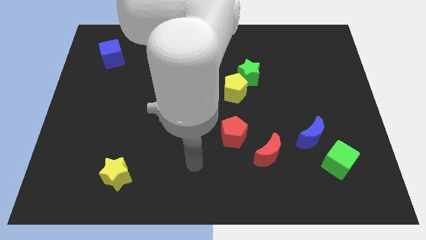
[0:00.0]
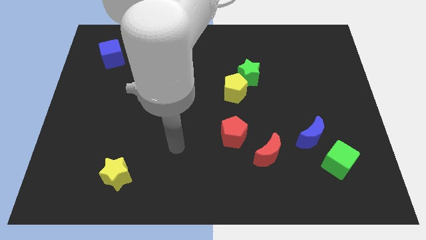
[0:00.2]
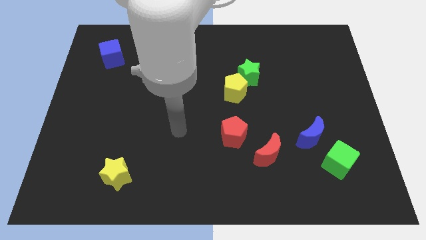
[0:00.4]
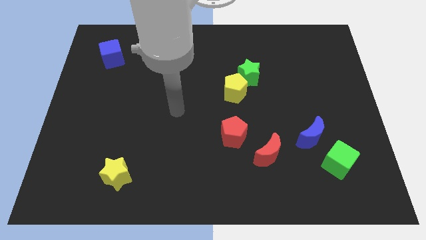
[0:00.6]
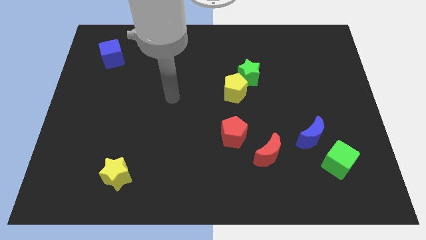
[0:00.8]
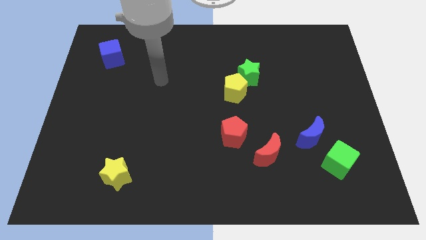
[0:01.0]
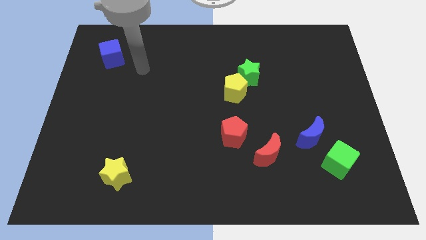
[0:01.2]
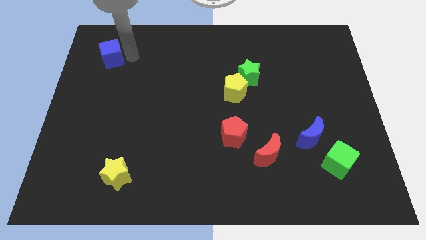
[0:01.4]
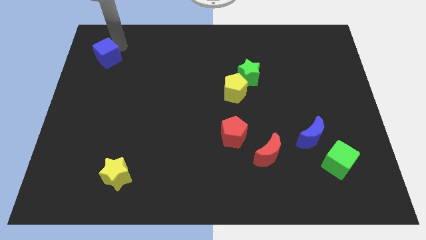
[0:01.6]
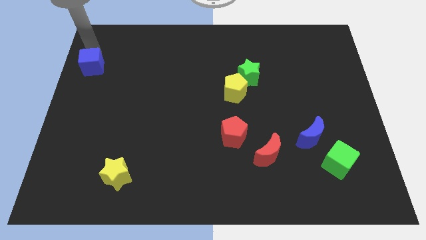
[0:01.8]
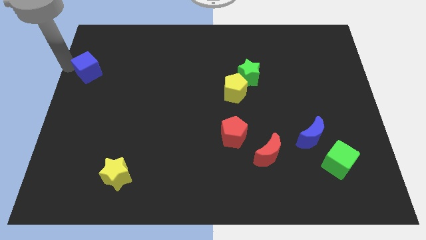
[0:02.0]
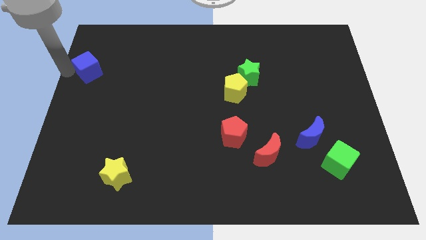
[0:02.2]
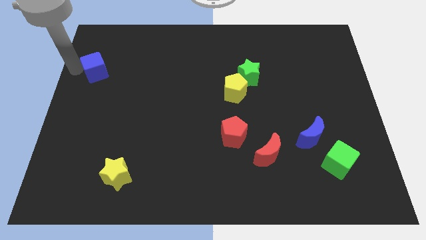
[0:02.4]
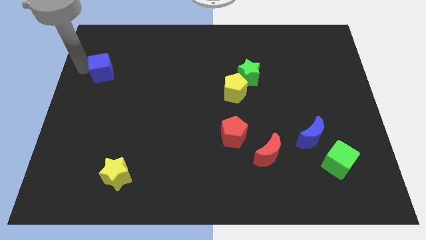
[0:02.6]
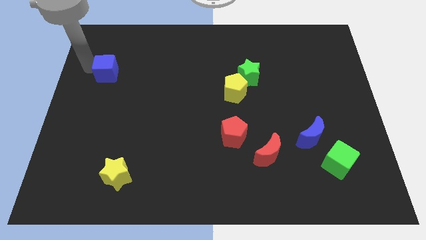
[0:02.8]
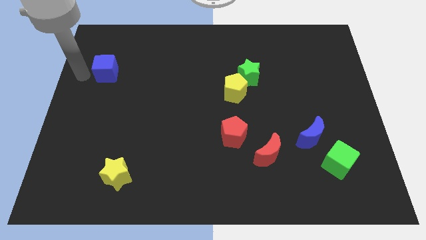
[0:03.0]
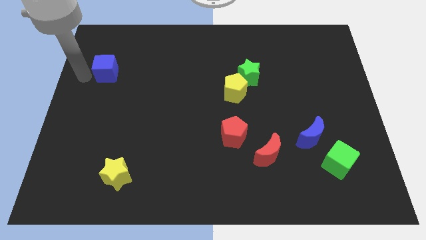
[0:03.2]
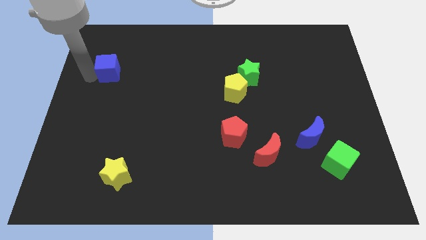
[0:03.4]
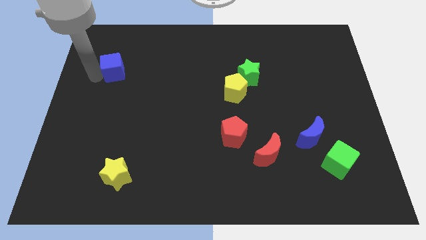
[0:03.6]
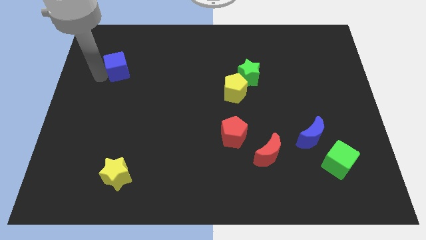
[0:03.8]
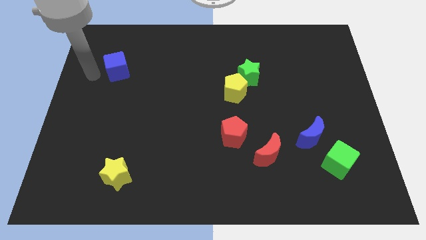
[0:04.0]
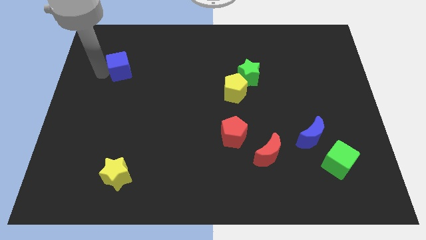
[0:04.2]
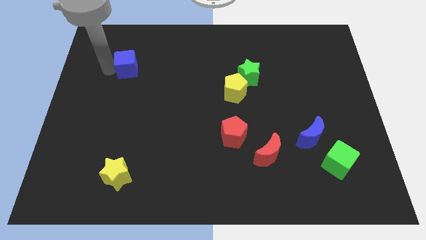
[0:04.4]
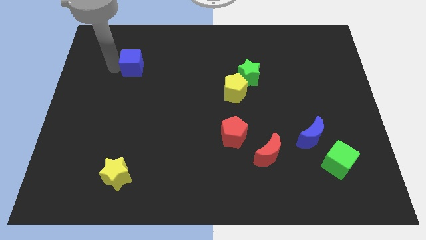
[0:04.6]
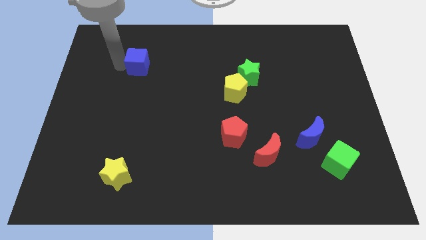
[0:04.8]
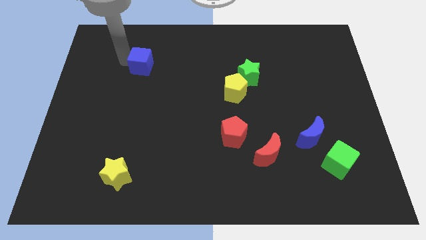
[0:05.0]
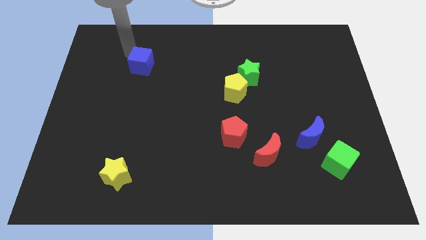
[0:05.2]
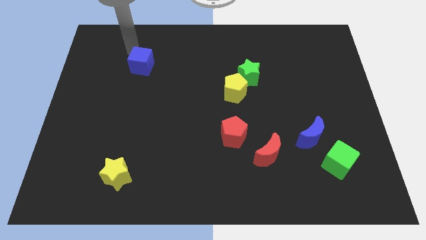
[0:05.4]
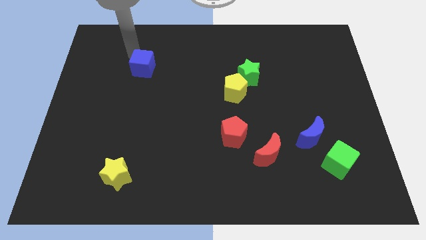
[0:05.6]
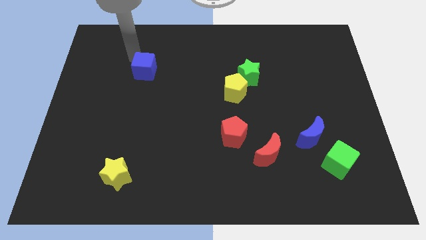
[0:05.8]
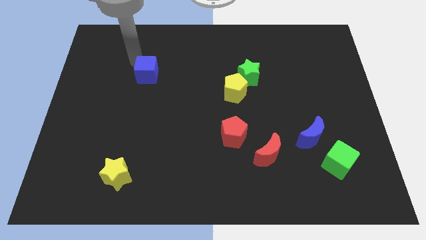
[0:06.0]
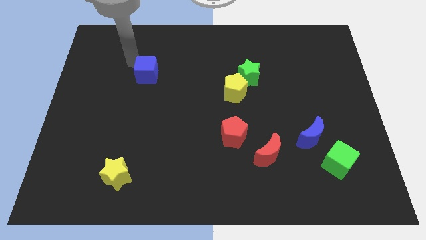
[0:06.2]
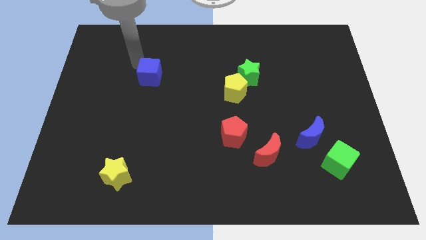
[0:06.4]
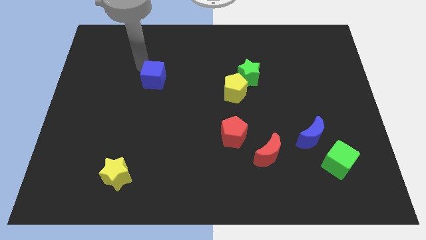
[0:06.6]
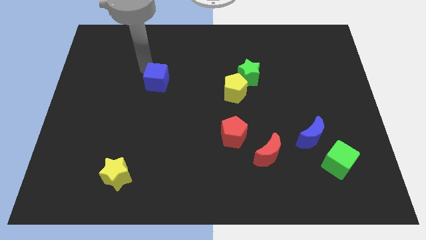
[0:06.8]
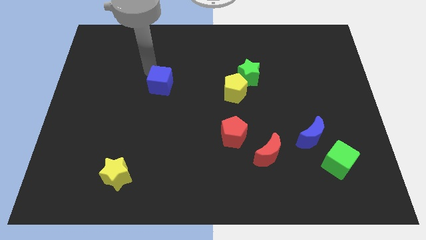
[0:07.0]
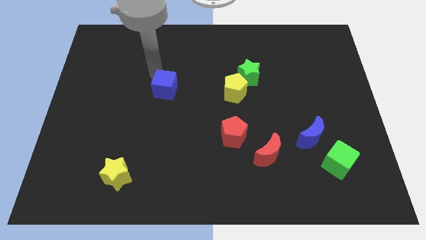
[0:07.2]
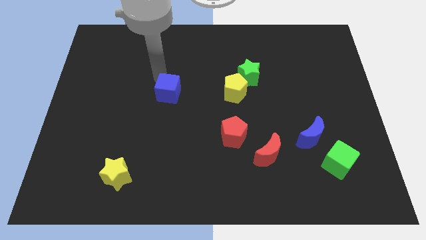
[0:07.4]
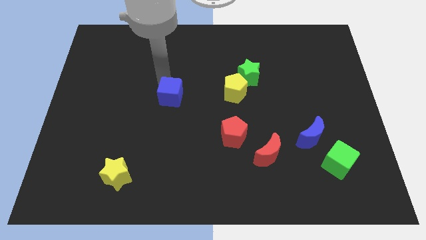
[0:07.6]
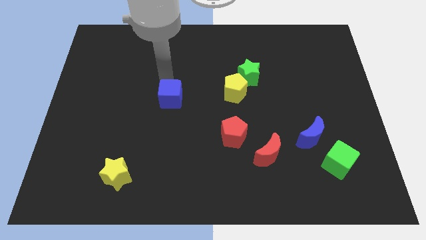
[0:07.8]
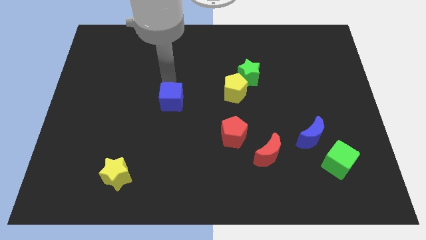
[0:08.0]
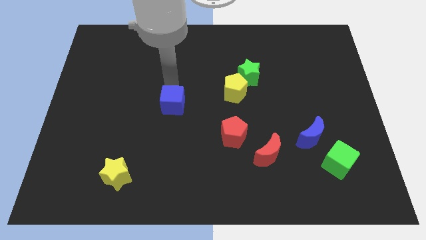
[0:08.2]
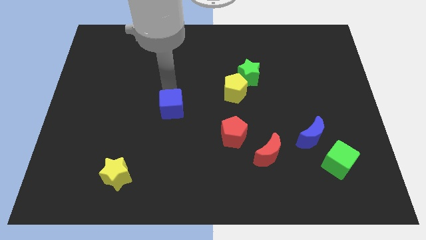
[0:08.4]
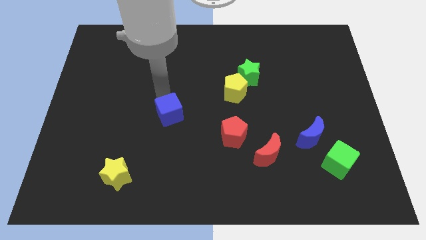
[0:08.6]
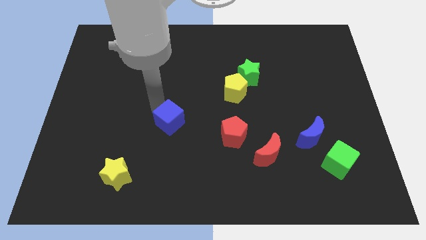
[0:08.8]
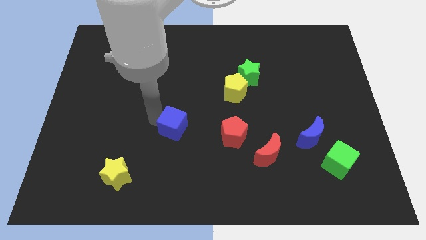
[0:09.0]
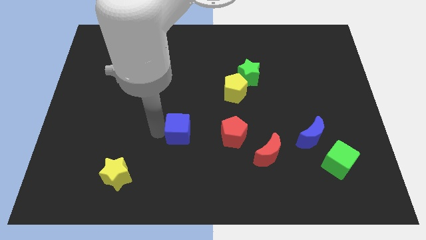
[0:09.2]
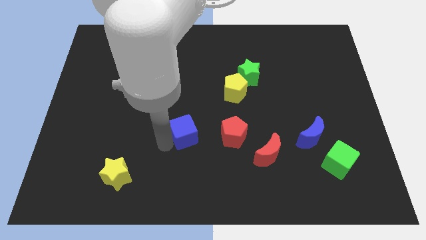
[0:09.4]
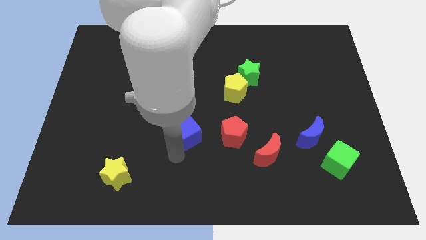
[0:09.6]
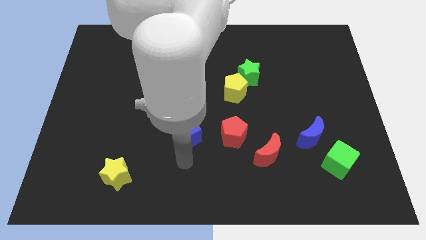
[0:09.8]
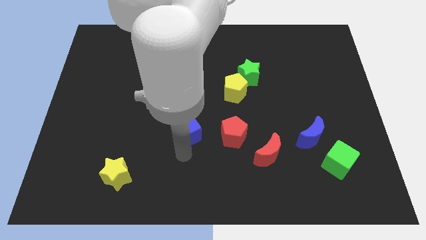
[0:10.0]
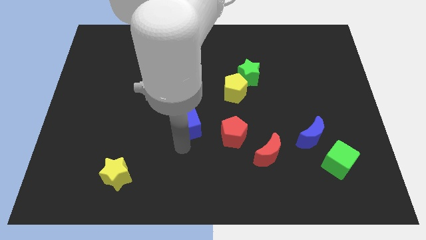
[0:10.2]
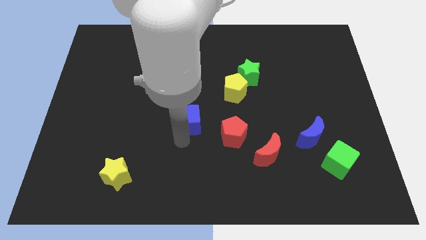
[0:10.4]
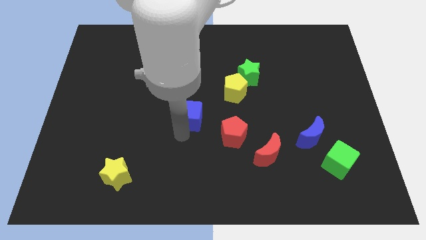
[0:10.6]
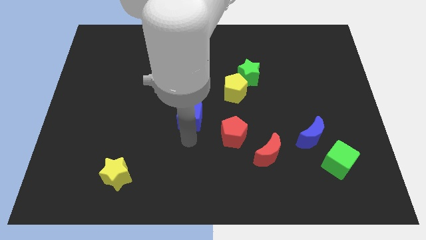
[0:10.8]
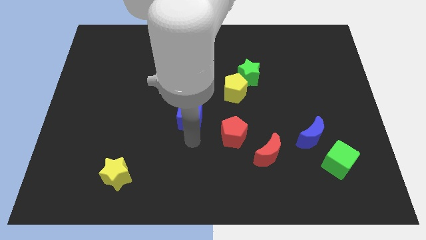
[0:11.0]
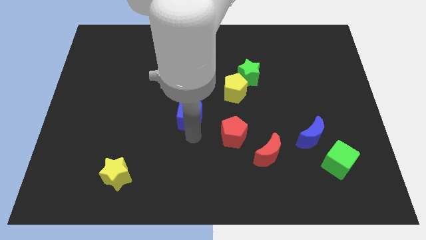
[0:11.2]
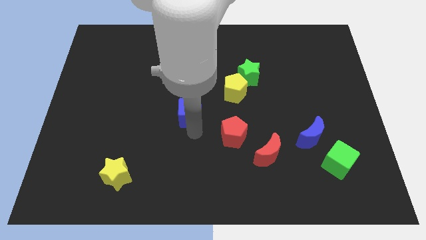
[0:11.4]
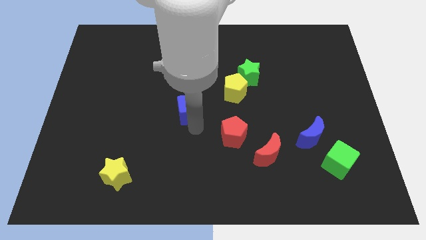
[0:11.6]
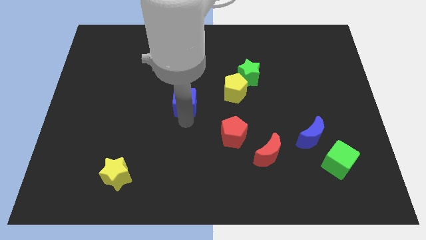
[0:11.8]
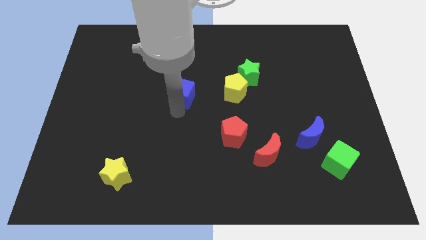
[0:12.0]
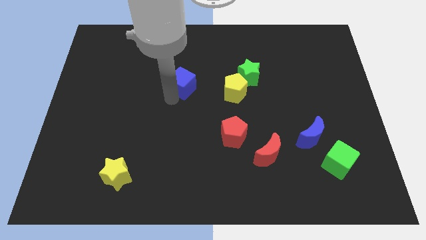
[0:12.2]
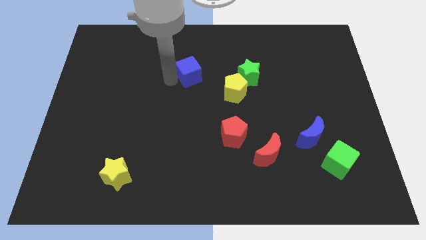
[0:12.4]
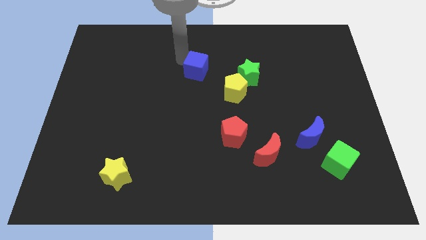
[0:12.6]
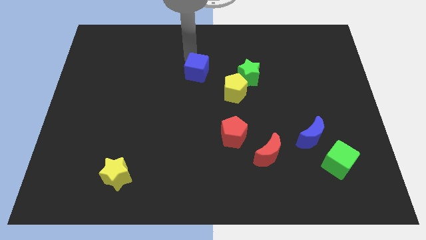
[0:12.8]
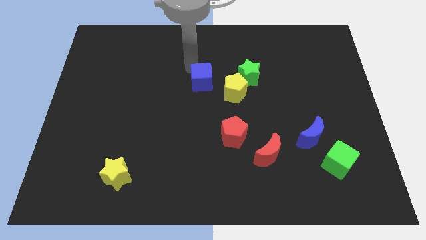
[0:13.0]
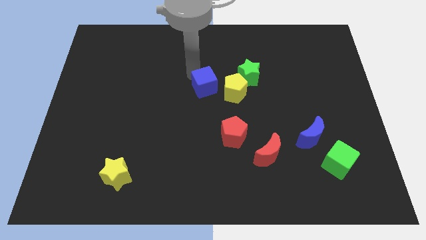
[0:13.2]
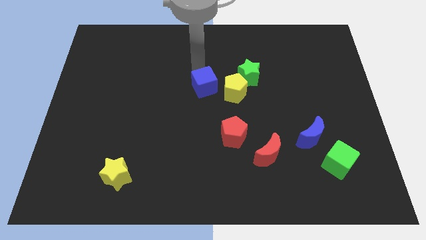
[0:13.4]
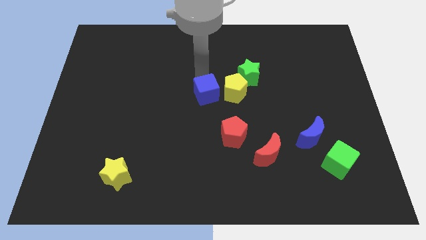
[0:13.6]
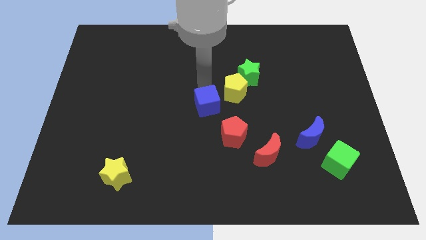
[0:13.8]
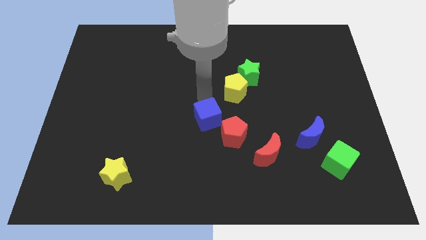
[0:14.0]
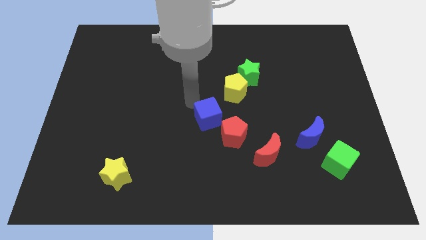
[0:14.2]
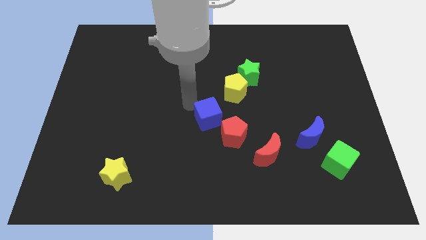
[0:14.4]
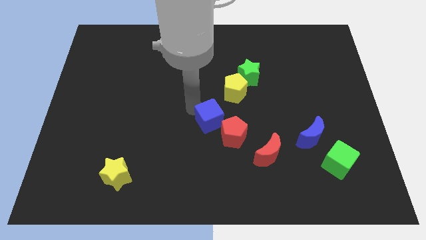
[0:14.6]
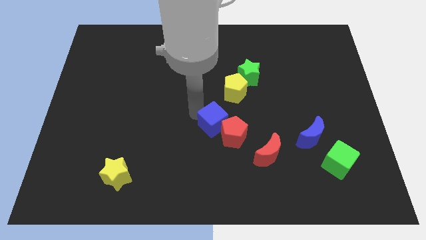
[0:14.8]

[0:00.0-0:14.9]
push the blue cube towards the red pentagon
